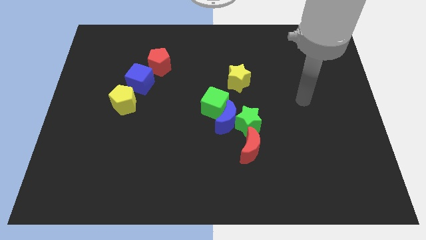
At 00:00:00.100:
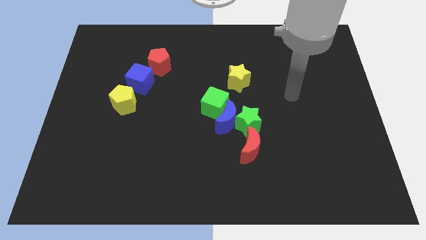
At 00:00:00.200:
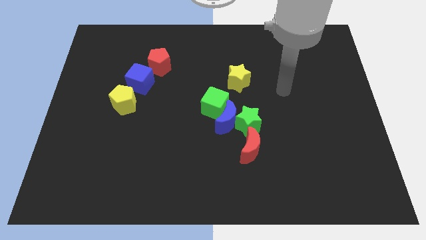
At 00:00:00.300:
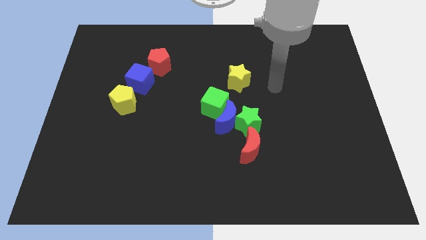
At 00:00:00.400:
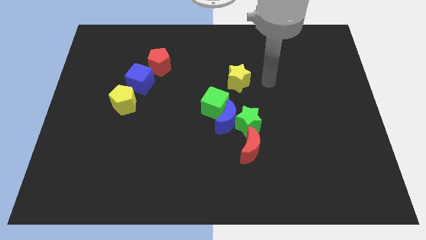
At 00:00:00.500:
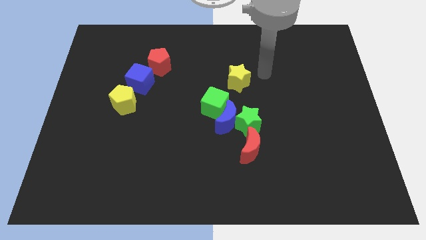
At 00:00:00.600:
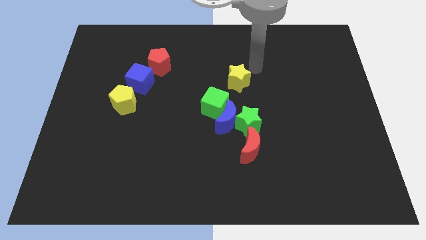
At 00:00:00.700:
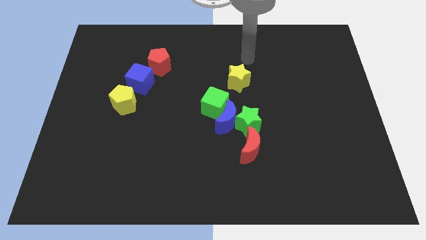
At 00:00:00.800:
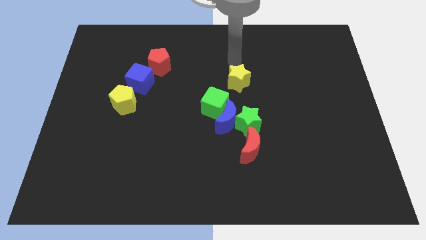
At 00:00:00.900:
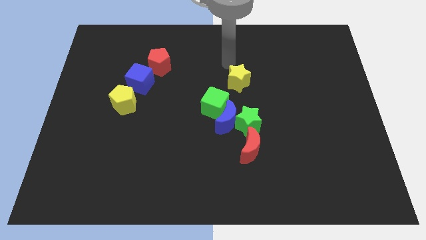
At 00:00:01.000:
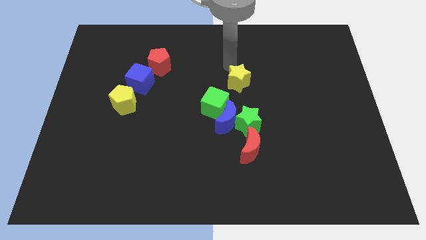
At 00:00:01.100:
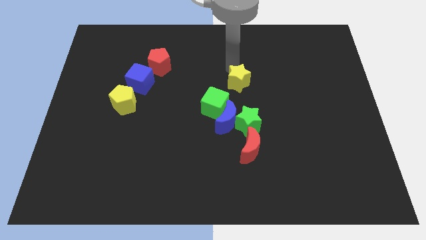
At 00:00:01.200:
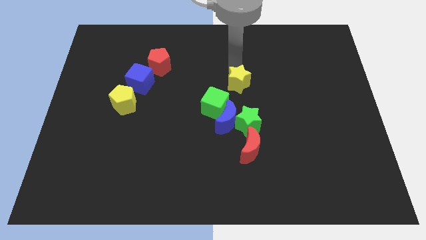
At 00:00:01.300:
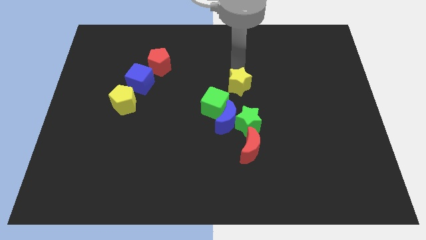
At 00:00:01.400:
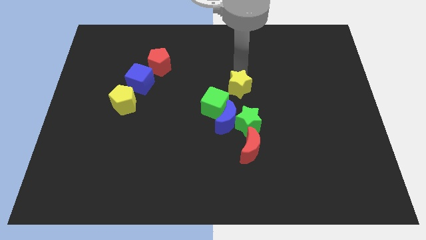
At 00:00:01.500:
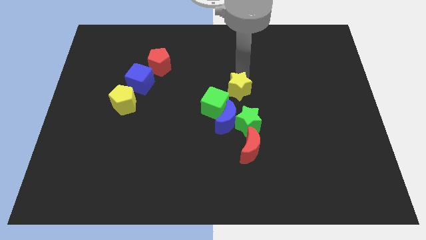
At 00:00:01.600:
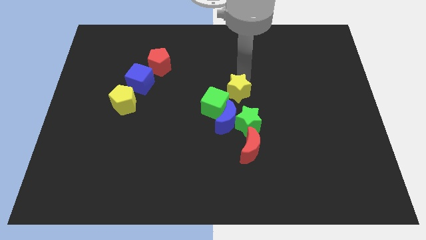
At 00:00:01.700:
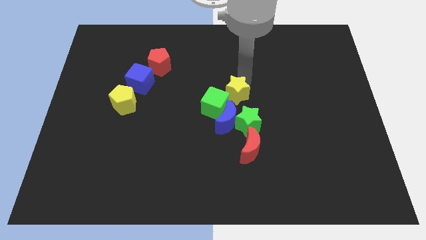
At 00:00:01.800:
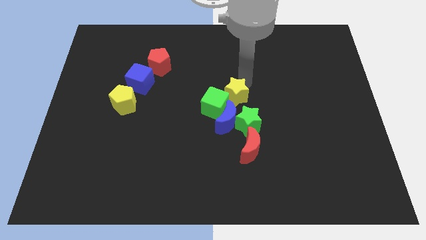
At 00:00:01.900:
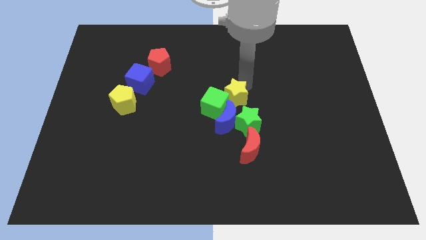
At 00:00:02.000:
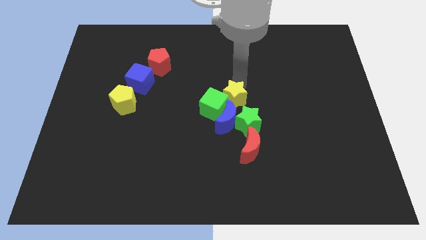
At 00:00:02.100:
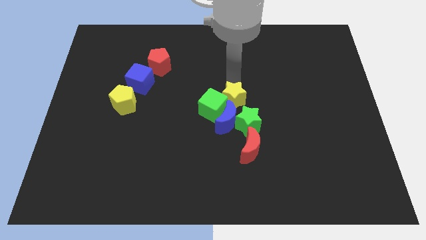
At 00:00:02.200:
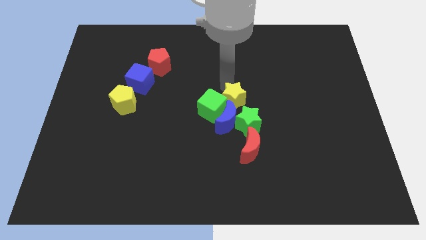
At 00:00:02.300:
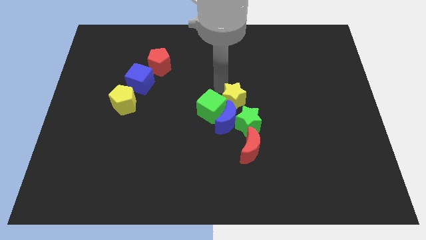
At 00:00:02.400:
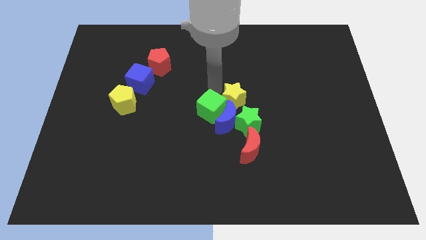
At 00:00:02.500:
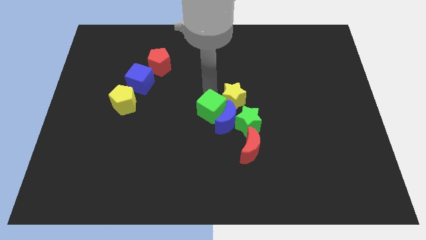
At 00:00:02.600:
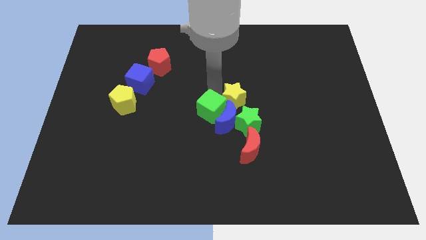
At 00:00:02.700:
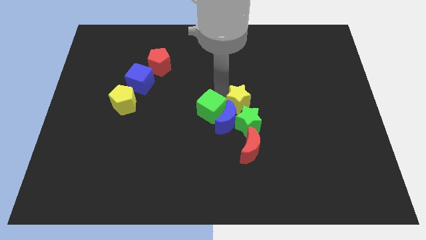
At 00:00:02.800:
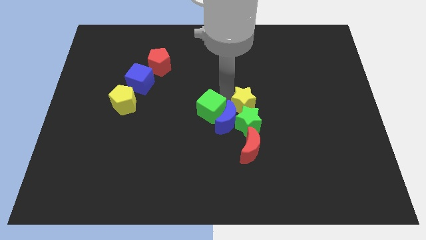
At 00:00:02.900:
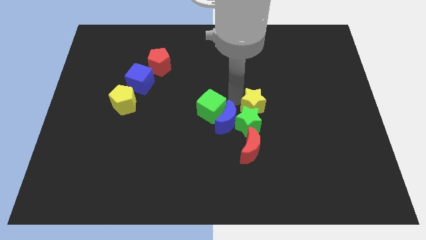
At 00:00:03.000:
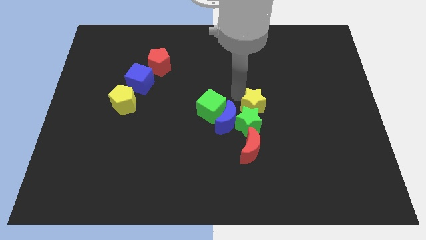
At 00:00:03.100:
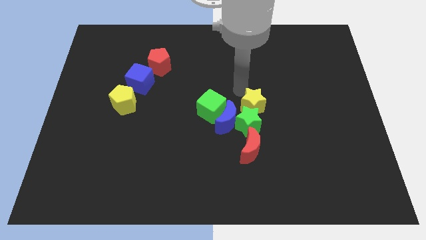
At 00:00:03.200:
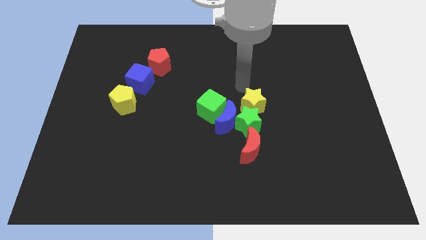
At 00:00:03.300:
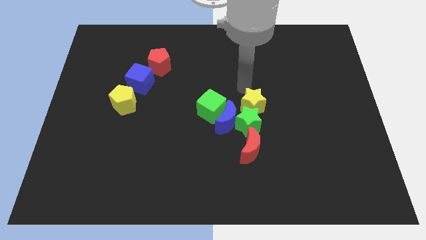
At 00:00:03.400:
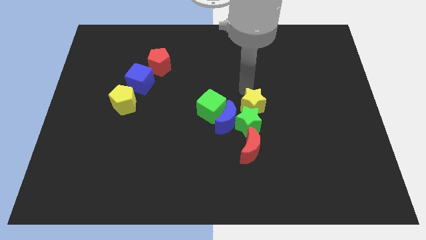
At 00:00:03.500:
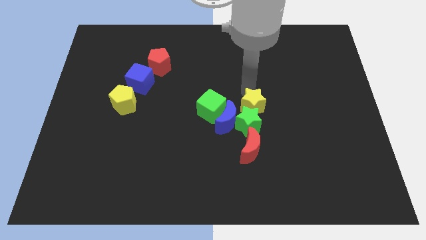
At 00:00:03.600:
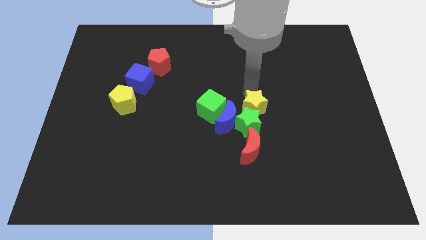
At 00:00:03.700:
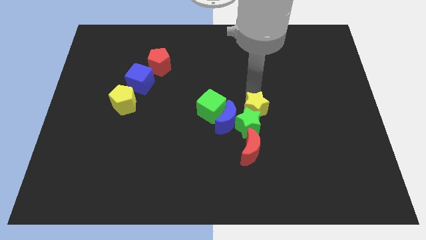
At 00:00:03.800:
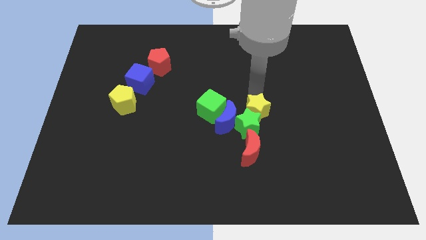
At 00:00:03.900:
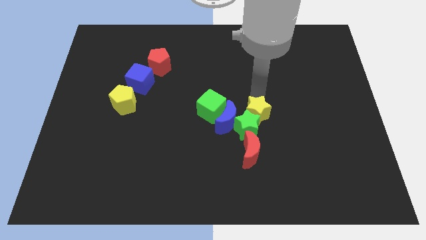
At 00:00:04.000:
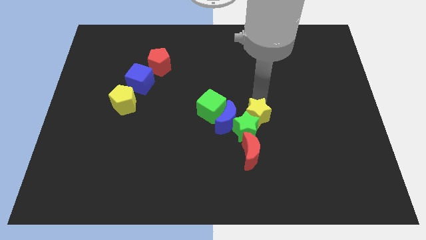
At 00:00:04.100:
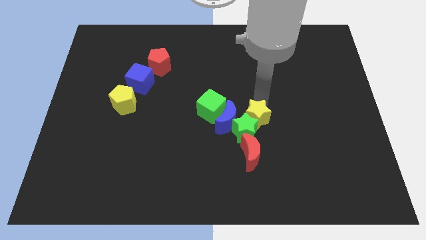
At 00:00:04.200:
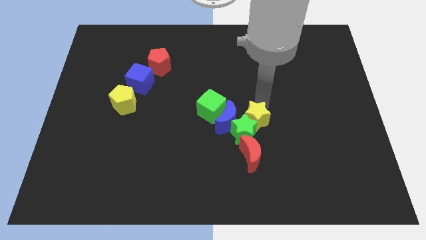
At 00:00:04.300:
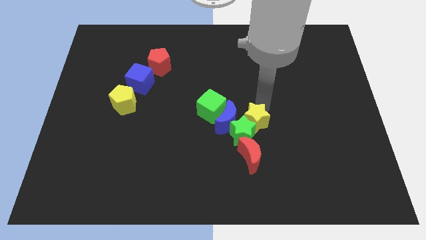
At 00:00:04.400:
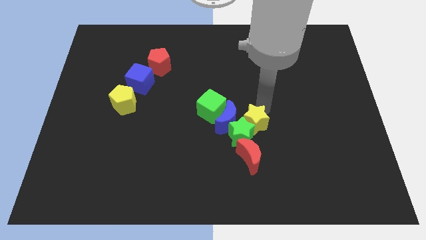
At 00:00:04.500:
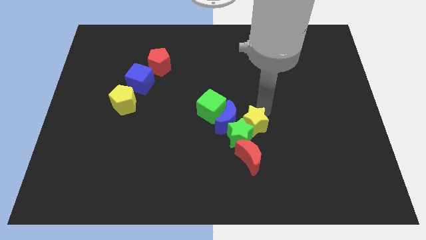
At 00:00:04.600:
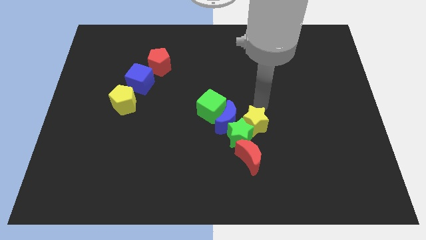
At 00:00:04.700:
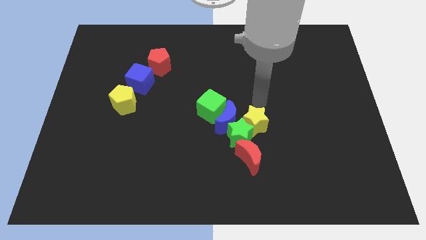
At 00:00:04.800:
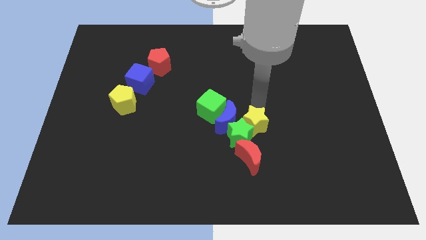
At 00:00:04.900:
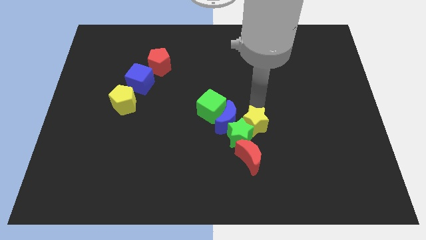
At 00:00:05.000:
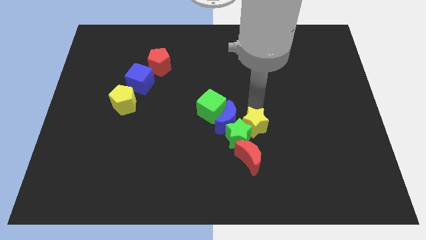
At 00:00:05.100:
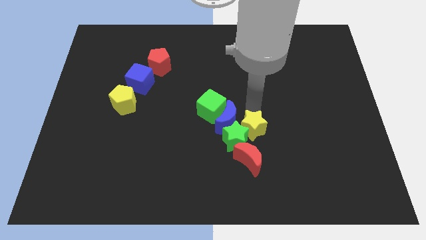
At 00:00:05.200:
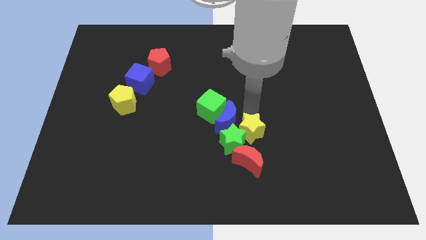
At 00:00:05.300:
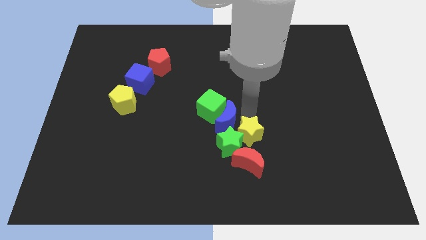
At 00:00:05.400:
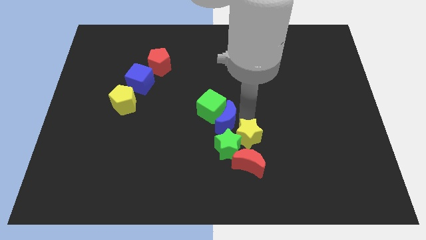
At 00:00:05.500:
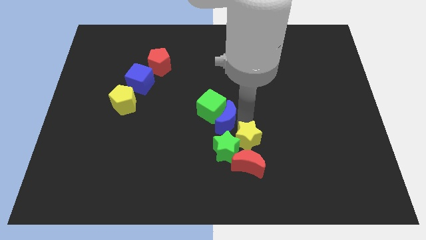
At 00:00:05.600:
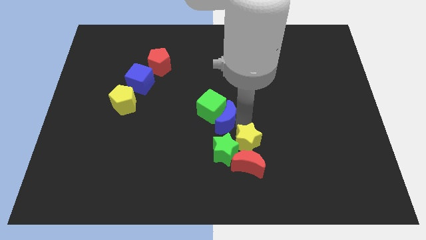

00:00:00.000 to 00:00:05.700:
move the yellow star towards the red moon

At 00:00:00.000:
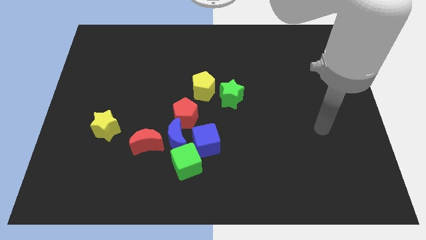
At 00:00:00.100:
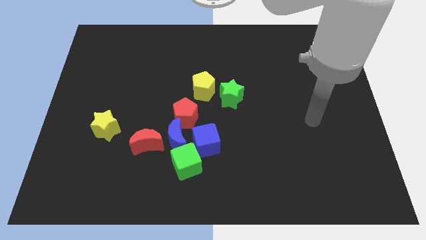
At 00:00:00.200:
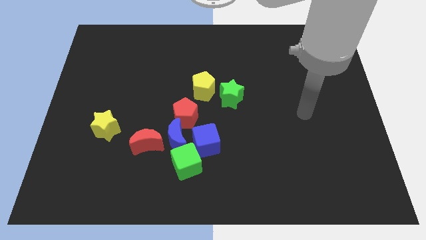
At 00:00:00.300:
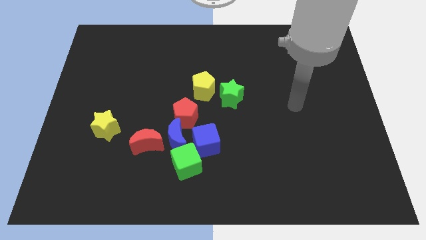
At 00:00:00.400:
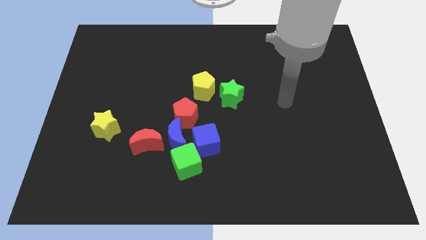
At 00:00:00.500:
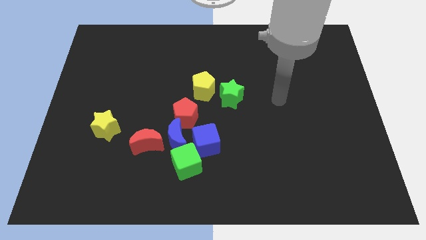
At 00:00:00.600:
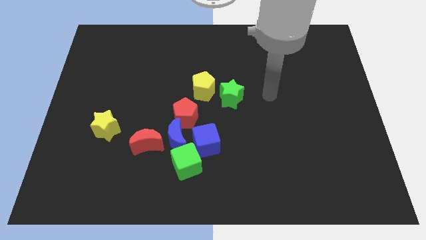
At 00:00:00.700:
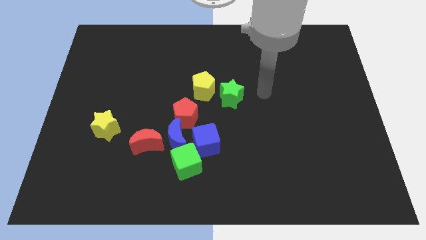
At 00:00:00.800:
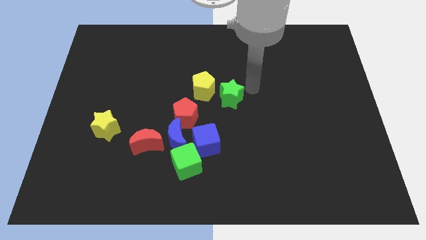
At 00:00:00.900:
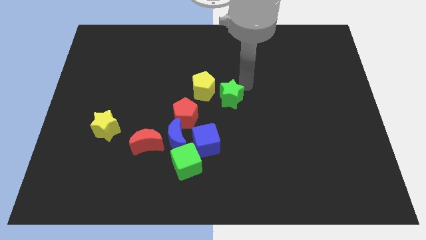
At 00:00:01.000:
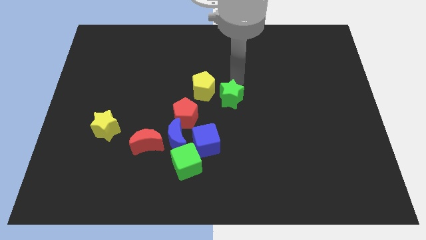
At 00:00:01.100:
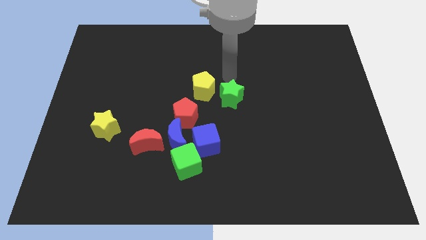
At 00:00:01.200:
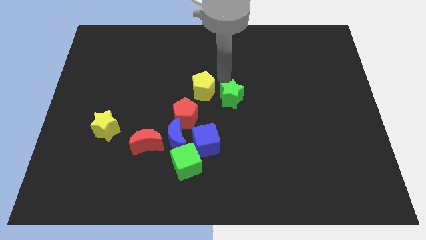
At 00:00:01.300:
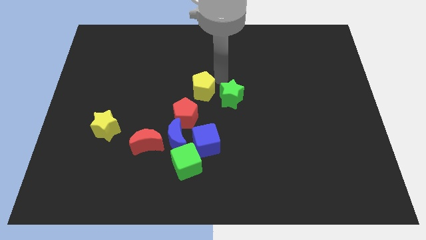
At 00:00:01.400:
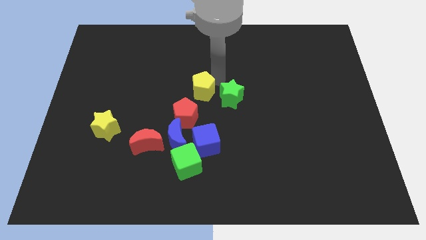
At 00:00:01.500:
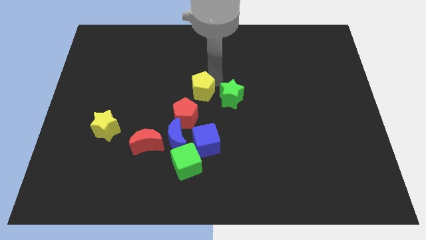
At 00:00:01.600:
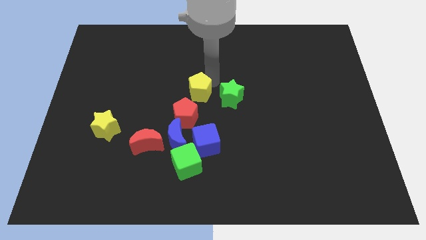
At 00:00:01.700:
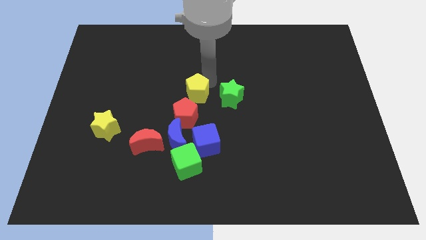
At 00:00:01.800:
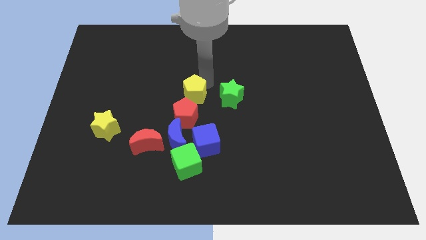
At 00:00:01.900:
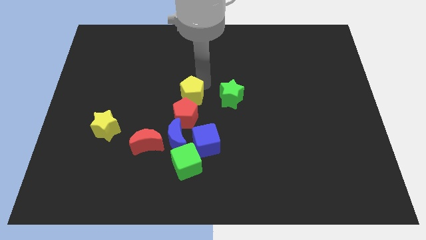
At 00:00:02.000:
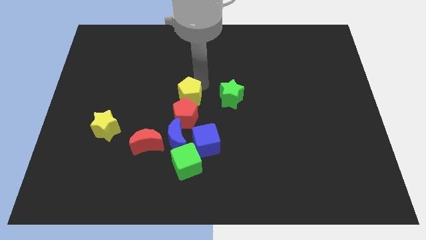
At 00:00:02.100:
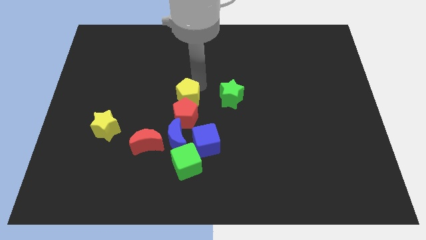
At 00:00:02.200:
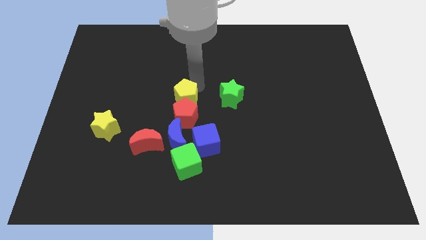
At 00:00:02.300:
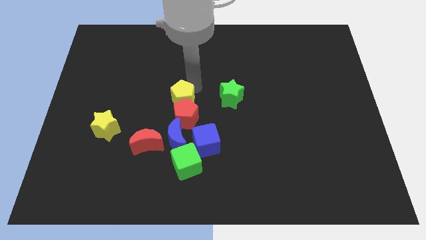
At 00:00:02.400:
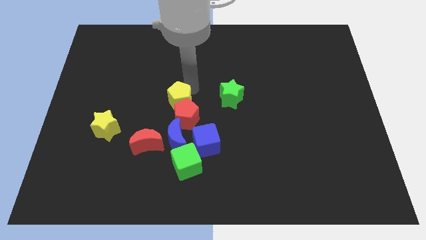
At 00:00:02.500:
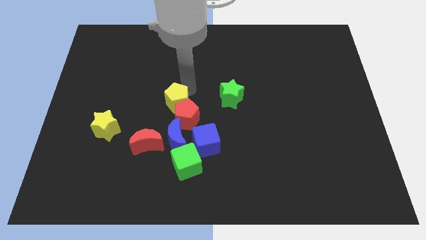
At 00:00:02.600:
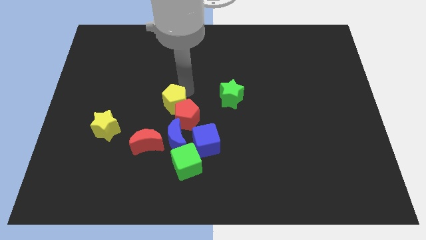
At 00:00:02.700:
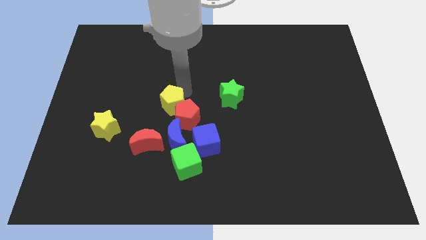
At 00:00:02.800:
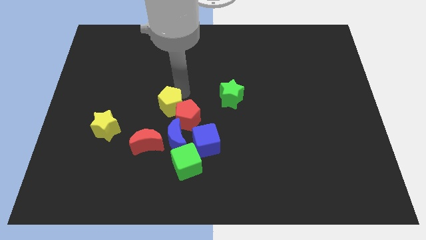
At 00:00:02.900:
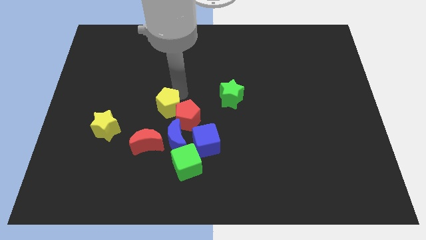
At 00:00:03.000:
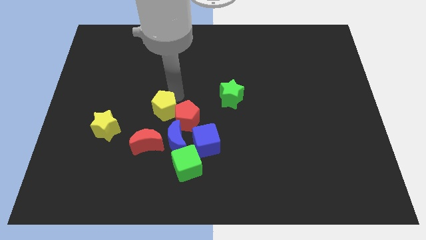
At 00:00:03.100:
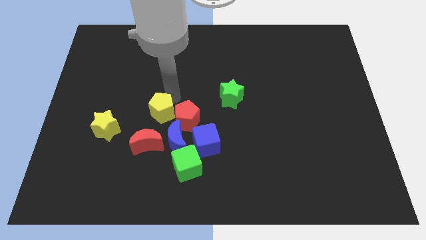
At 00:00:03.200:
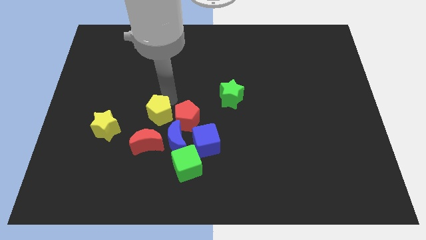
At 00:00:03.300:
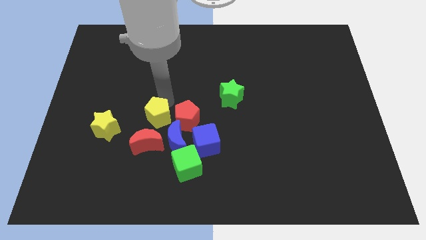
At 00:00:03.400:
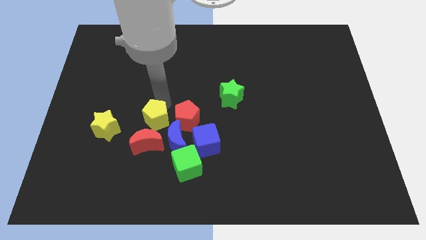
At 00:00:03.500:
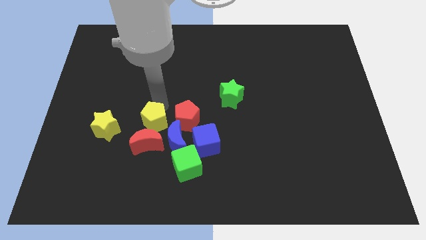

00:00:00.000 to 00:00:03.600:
slide the yellow pentagon towards the red moon
